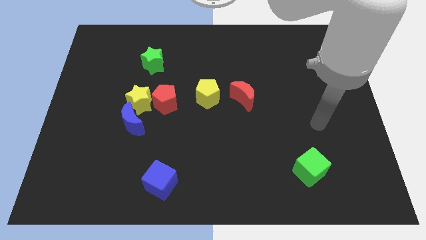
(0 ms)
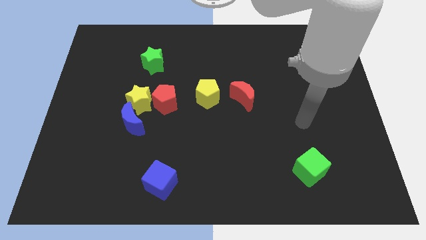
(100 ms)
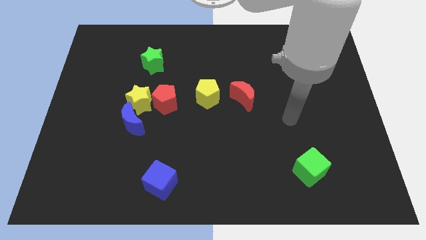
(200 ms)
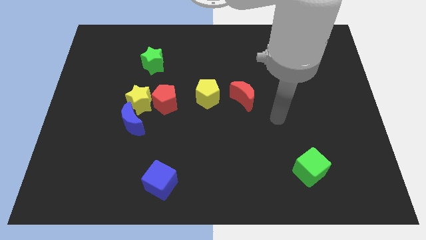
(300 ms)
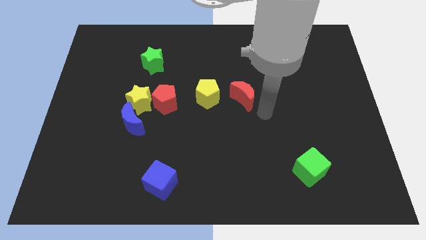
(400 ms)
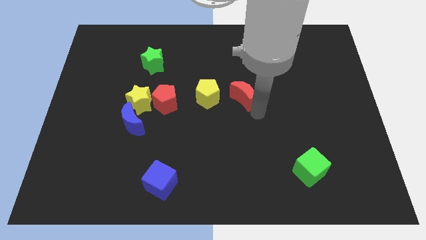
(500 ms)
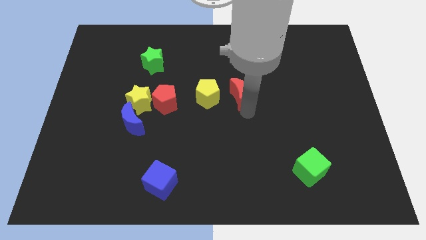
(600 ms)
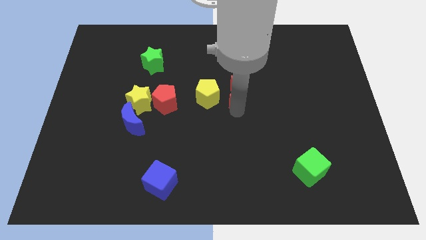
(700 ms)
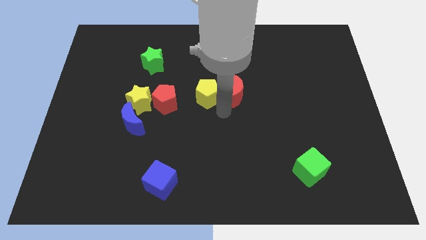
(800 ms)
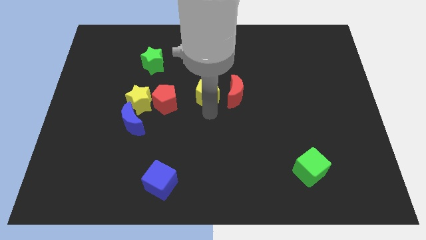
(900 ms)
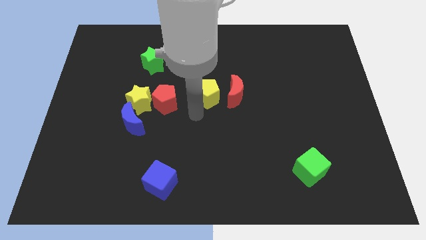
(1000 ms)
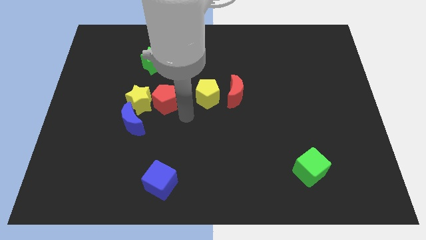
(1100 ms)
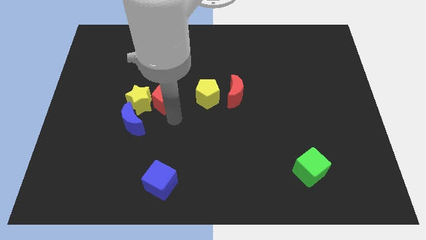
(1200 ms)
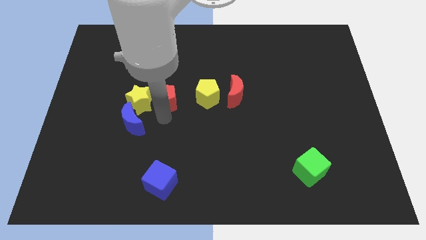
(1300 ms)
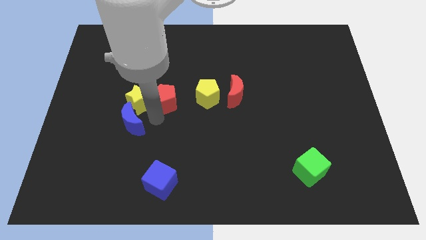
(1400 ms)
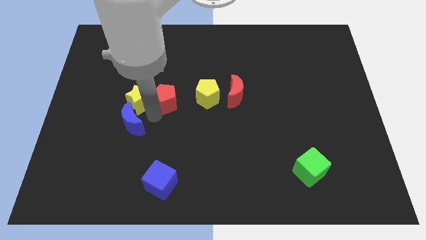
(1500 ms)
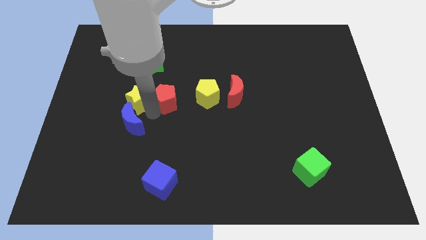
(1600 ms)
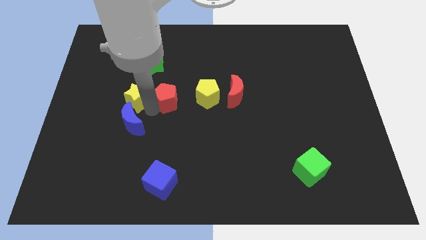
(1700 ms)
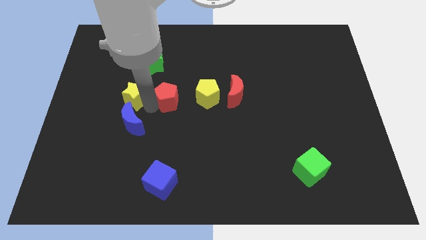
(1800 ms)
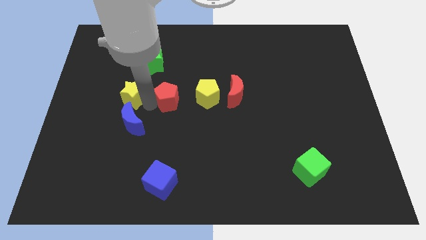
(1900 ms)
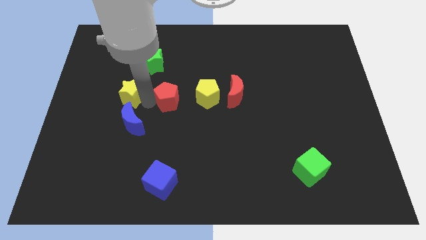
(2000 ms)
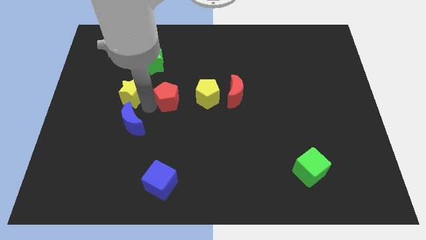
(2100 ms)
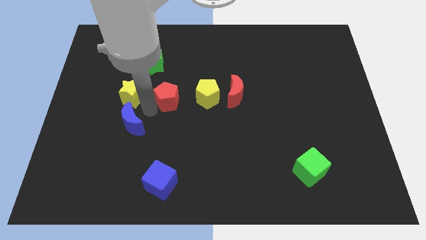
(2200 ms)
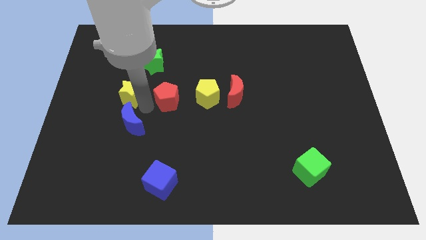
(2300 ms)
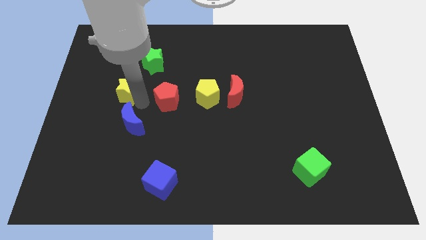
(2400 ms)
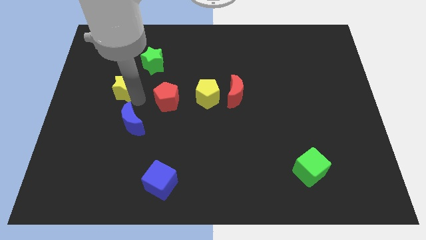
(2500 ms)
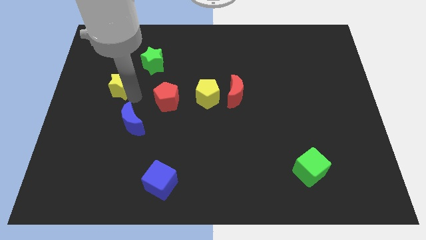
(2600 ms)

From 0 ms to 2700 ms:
pull the yellow star apart from the red pentagon and blue moon

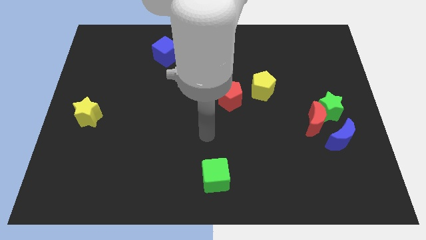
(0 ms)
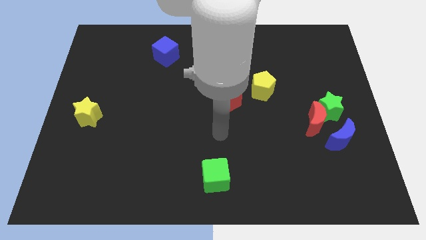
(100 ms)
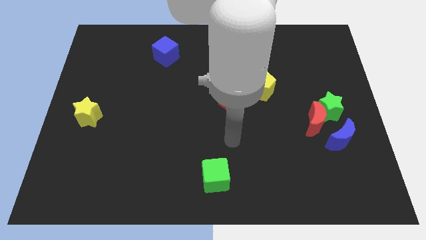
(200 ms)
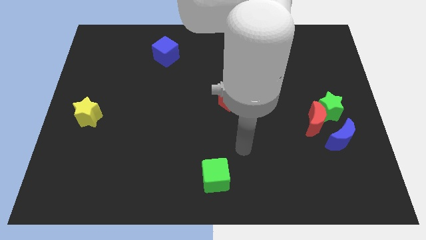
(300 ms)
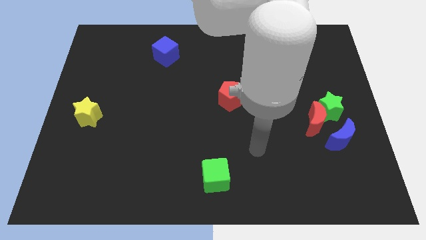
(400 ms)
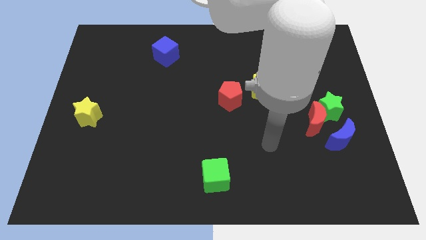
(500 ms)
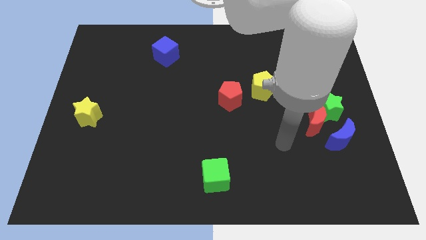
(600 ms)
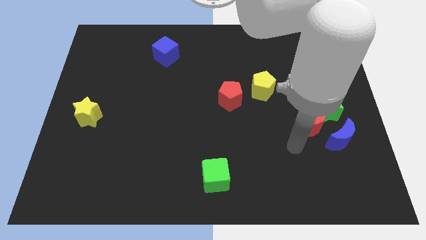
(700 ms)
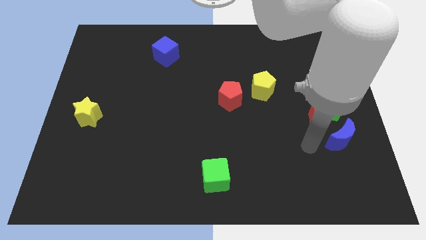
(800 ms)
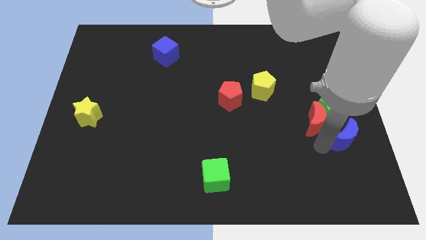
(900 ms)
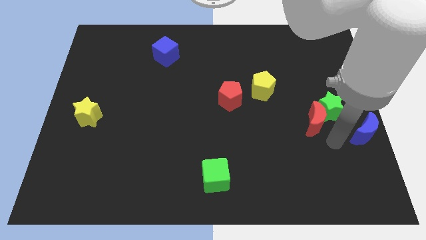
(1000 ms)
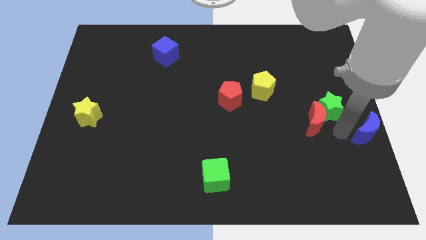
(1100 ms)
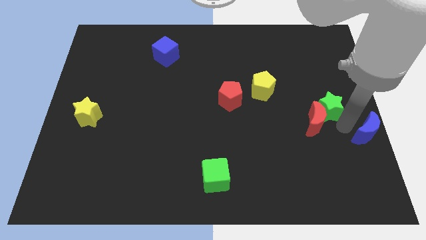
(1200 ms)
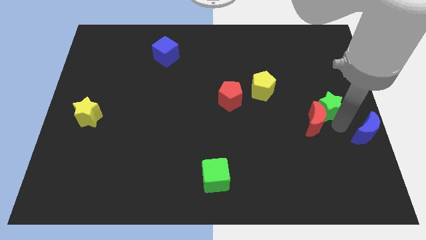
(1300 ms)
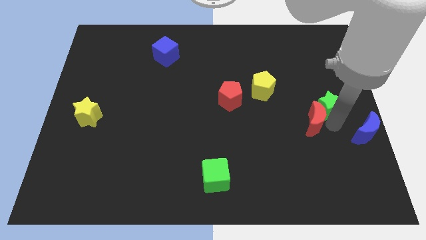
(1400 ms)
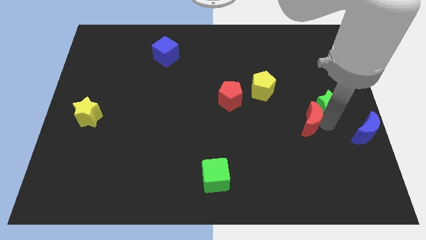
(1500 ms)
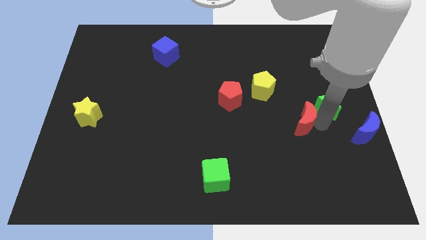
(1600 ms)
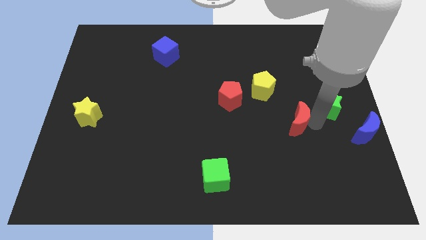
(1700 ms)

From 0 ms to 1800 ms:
move the red moon away from the green star and blue moon

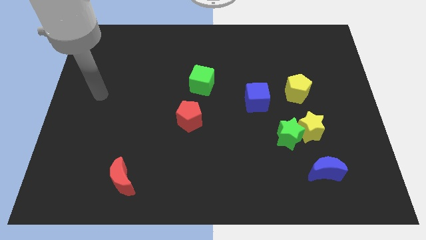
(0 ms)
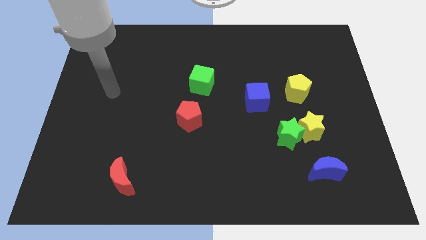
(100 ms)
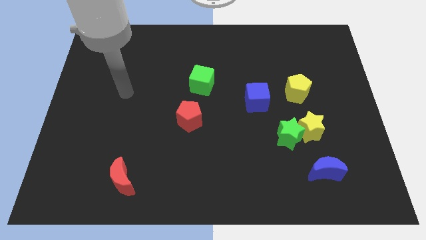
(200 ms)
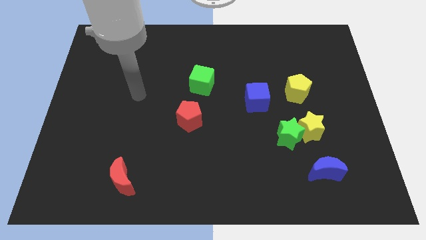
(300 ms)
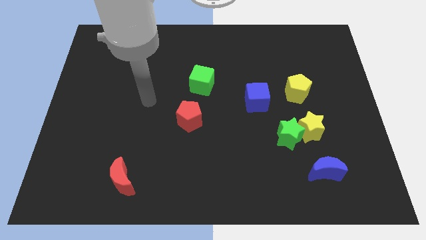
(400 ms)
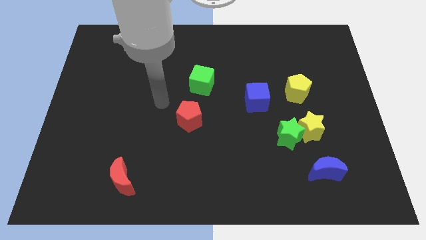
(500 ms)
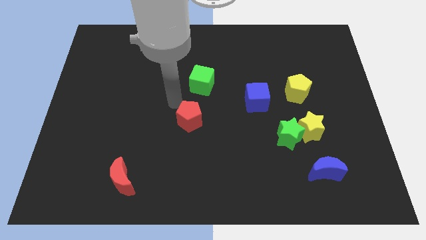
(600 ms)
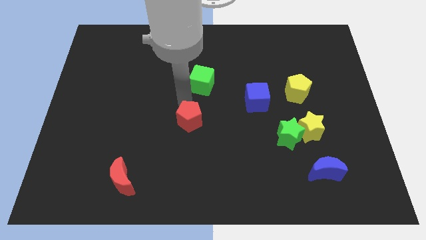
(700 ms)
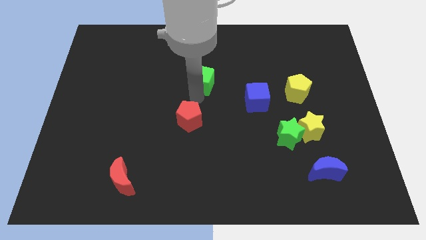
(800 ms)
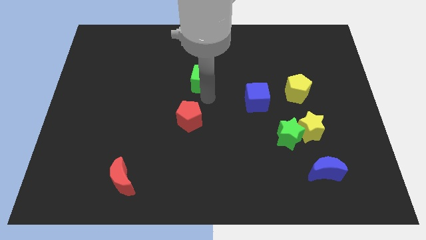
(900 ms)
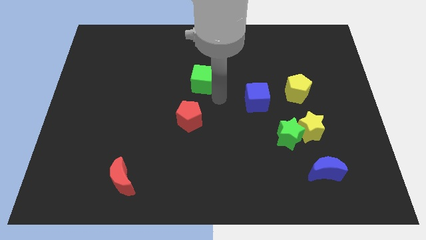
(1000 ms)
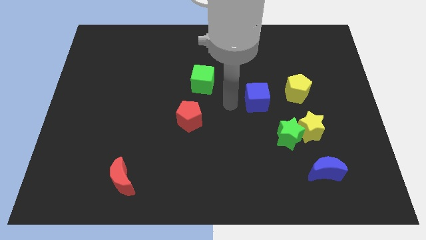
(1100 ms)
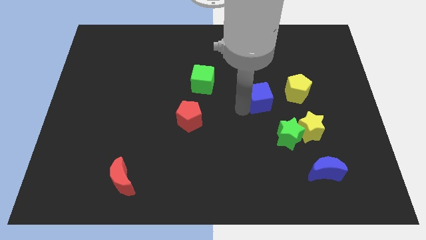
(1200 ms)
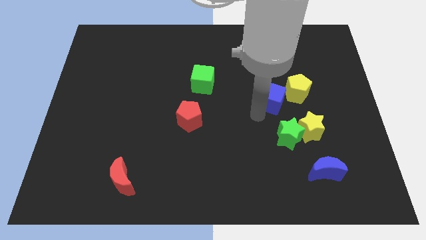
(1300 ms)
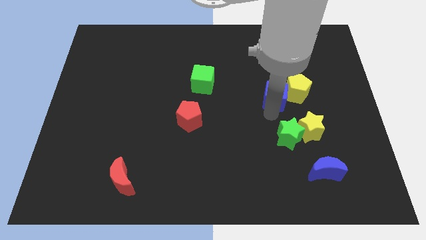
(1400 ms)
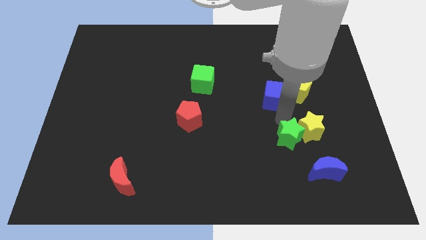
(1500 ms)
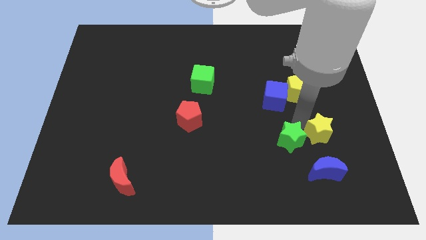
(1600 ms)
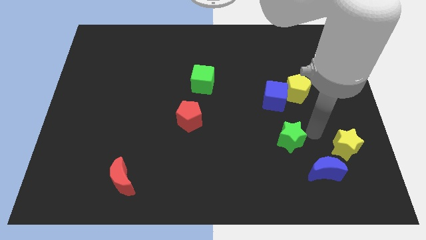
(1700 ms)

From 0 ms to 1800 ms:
move the green star away from the yellow star

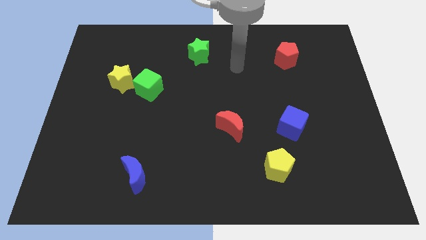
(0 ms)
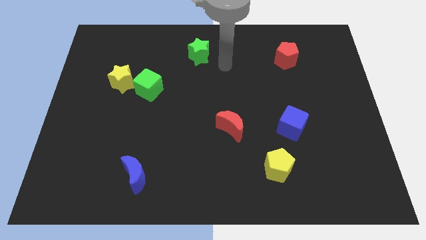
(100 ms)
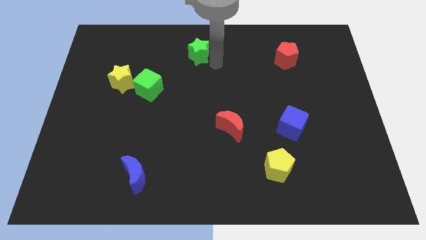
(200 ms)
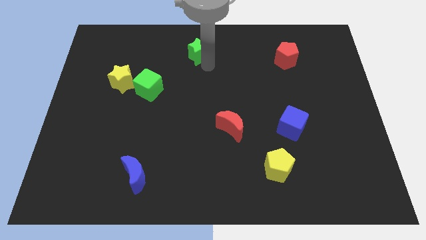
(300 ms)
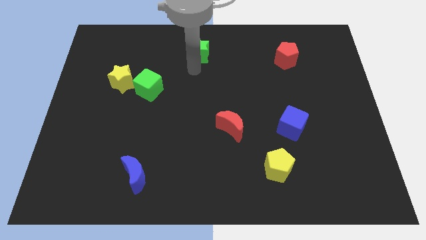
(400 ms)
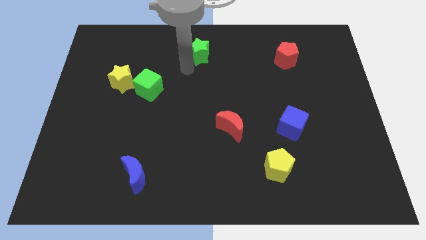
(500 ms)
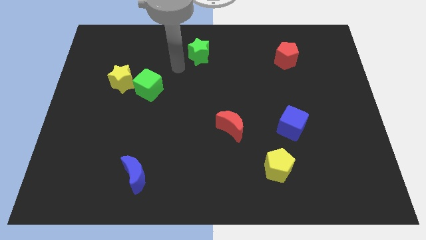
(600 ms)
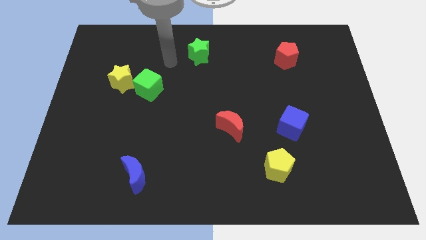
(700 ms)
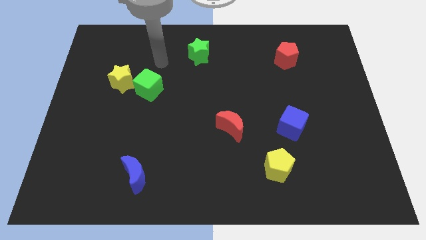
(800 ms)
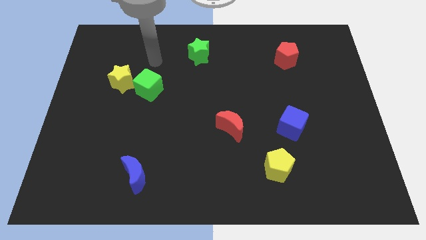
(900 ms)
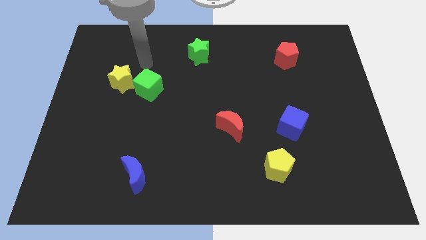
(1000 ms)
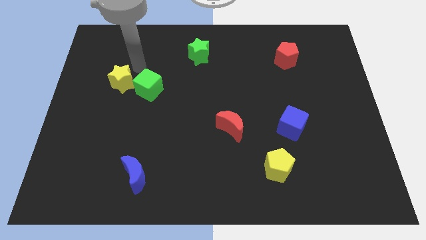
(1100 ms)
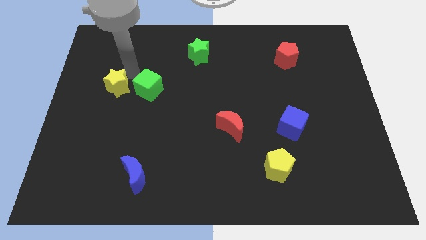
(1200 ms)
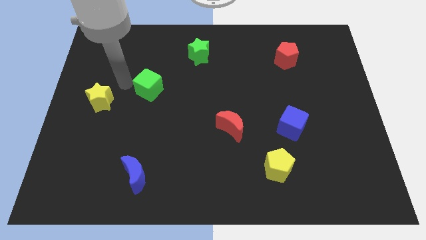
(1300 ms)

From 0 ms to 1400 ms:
pull the green cube apart from the yellow star

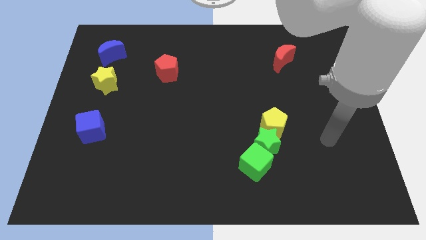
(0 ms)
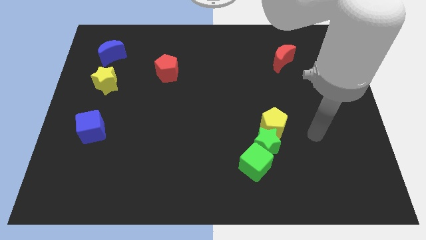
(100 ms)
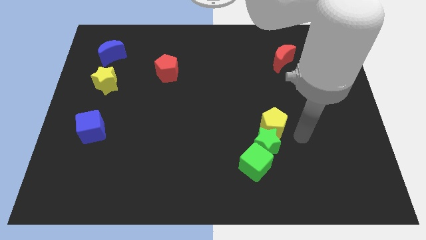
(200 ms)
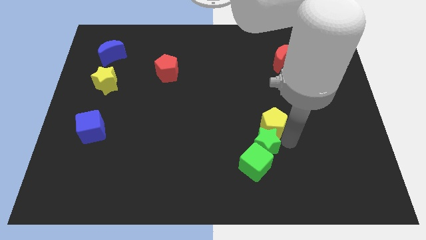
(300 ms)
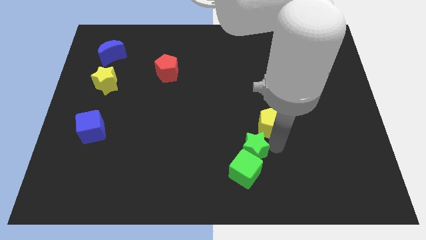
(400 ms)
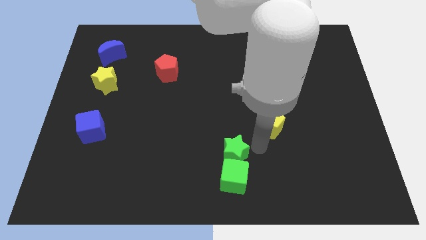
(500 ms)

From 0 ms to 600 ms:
separate the yellow pentagon from the green star

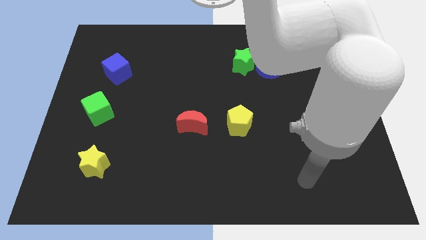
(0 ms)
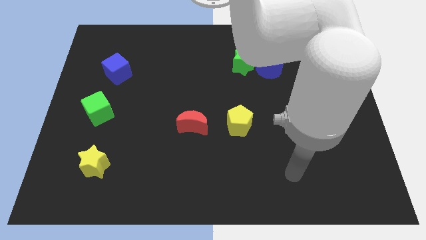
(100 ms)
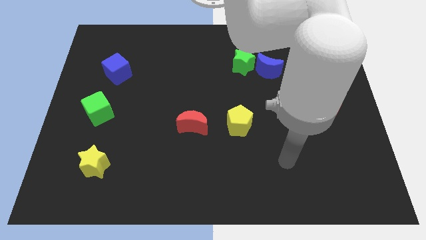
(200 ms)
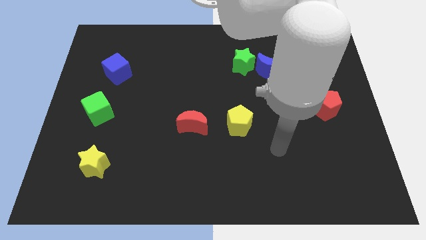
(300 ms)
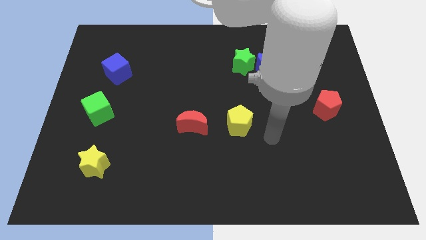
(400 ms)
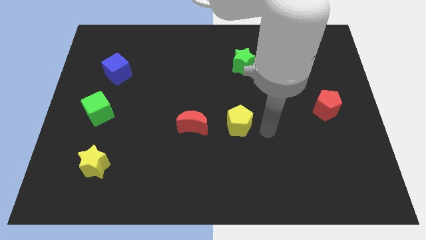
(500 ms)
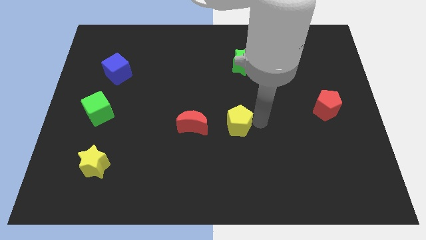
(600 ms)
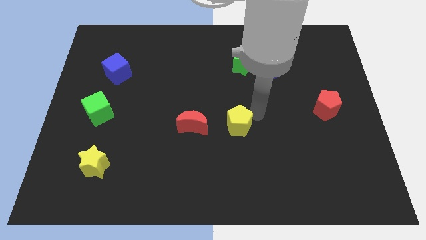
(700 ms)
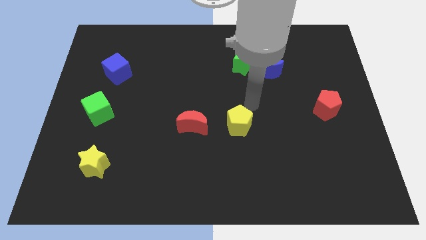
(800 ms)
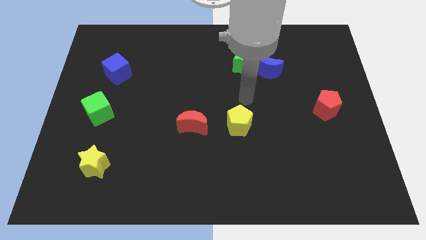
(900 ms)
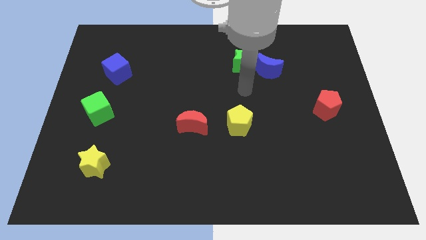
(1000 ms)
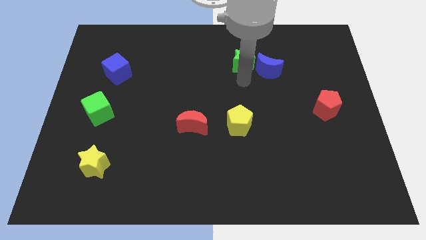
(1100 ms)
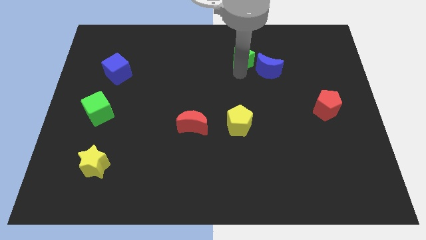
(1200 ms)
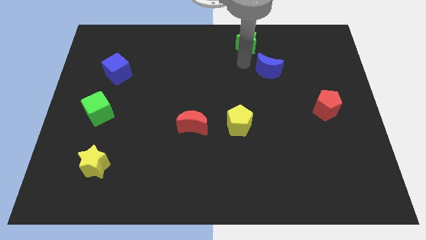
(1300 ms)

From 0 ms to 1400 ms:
move the blue moon away from the green star
